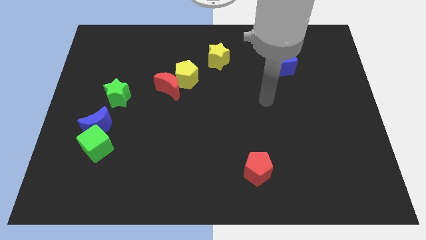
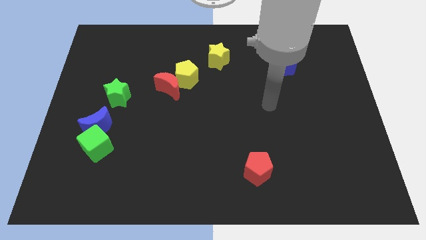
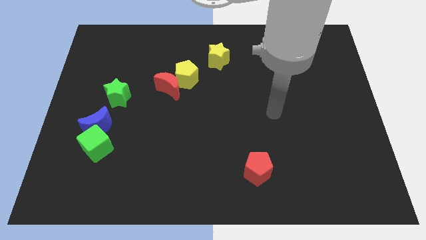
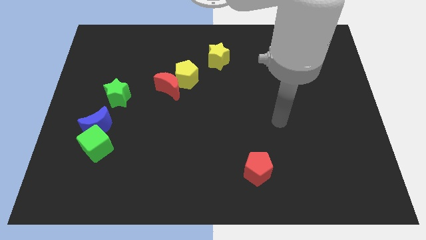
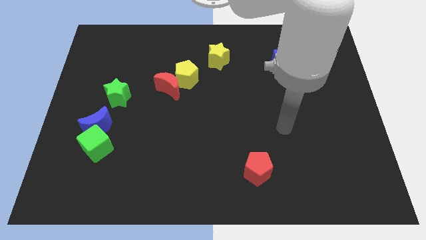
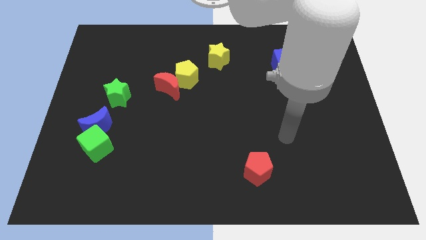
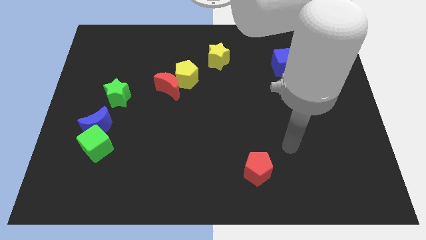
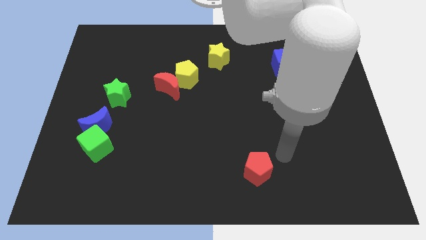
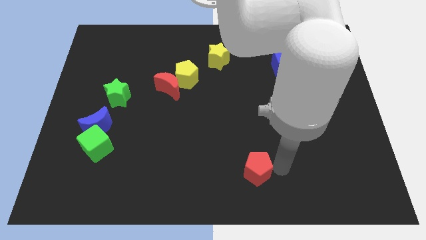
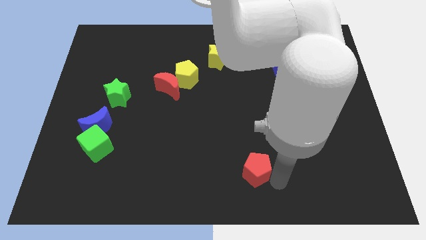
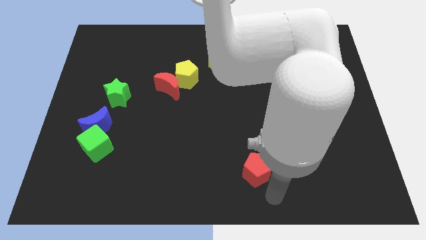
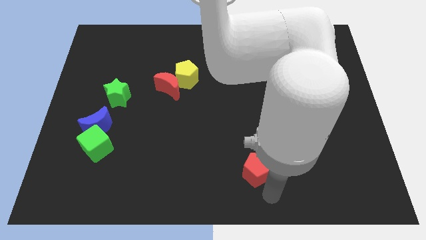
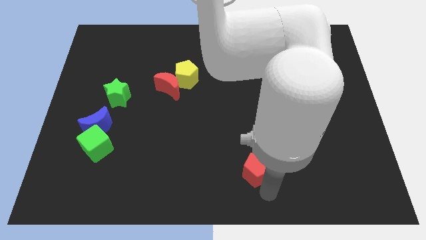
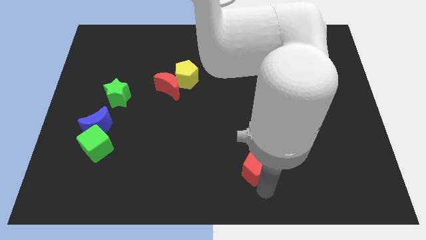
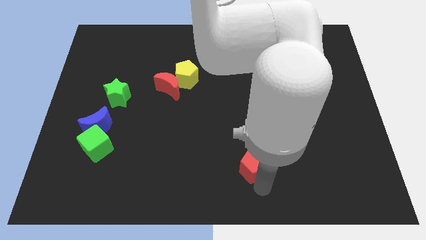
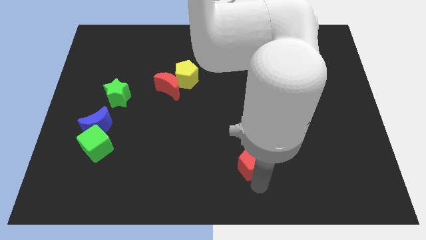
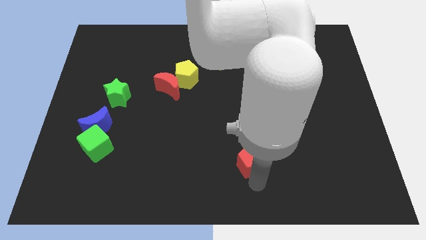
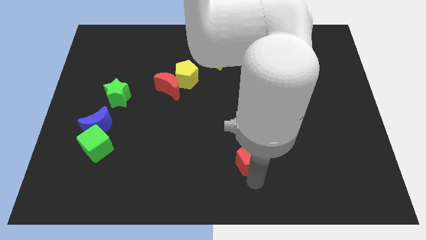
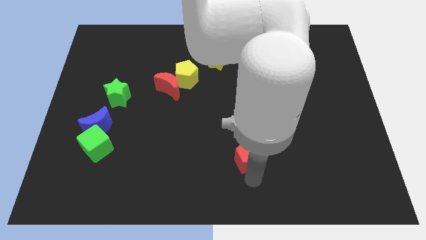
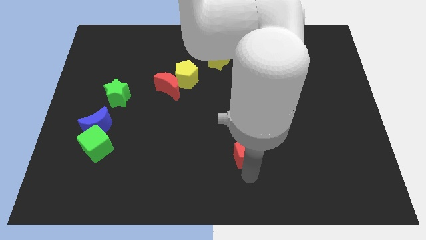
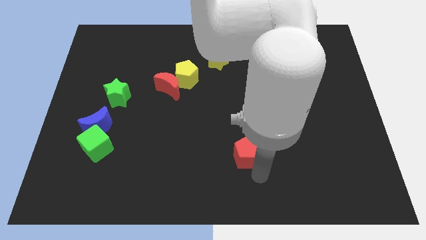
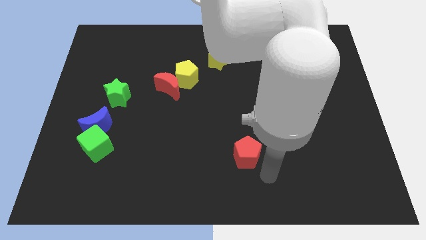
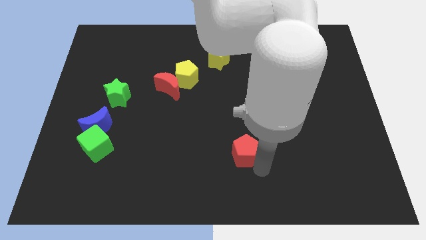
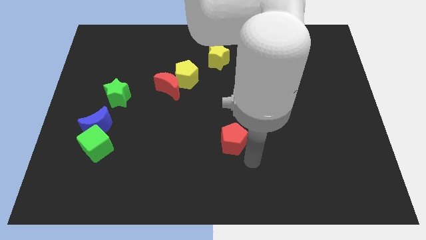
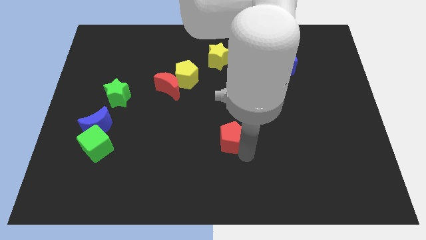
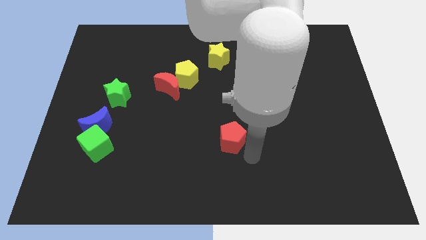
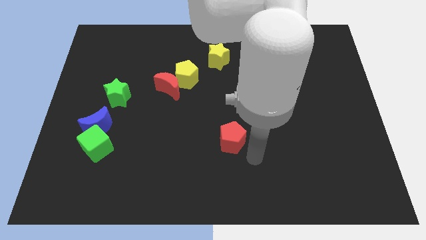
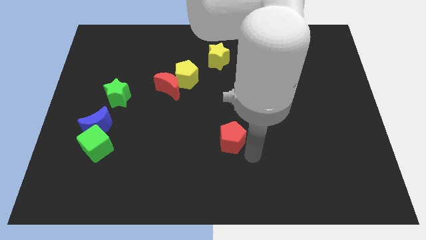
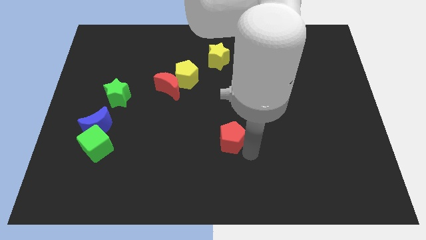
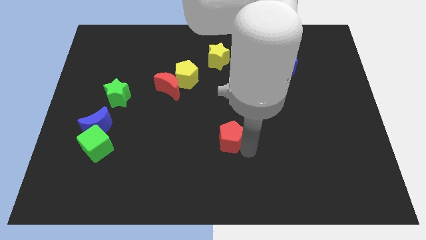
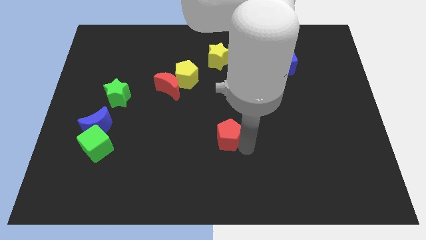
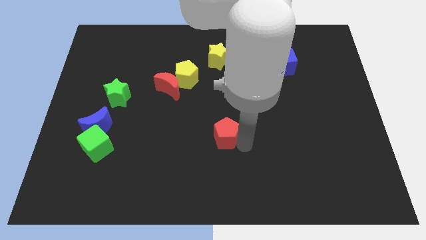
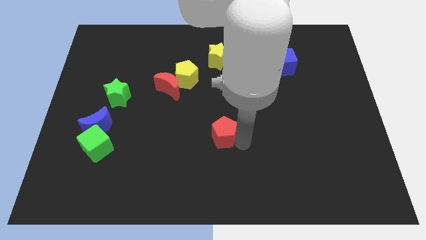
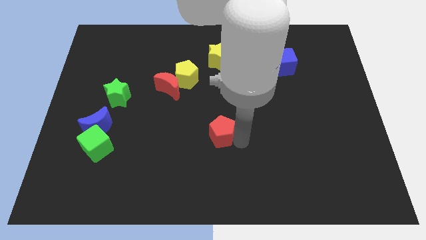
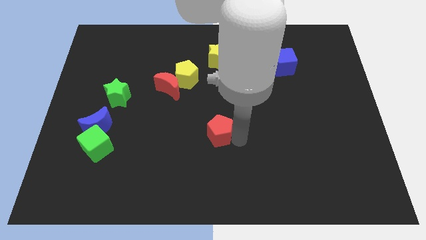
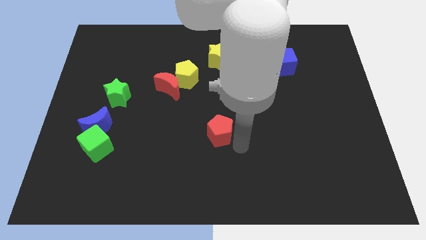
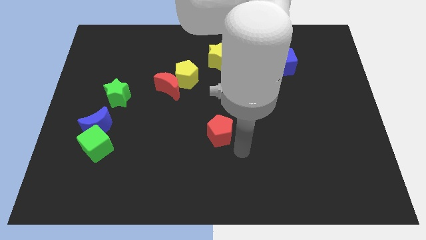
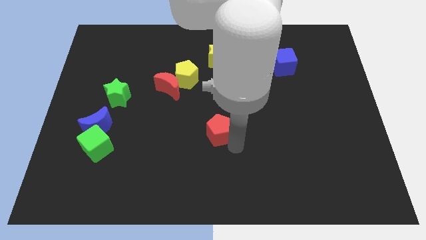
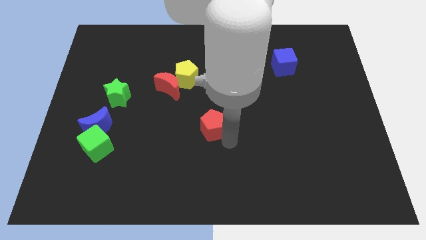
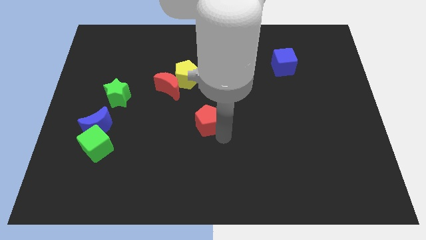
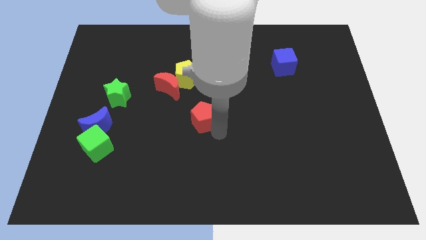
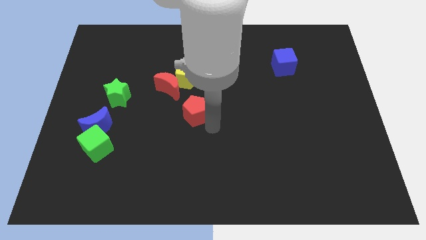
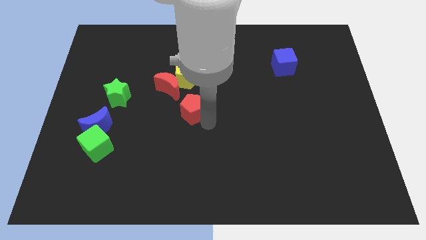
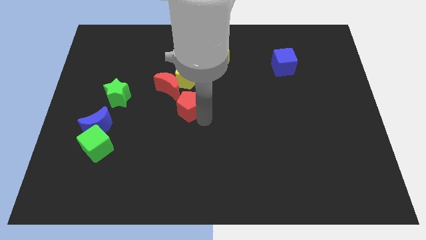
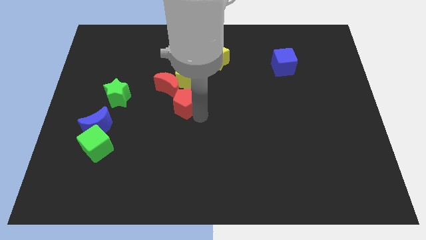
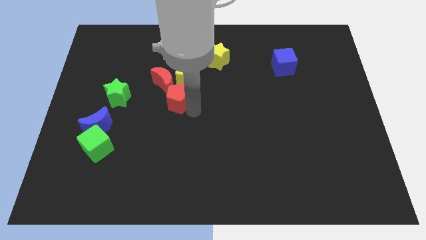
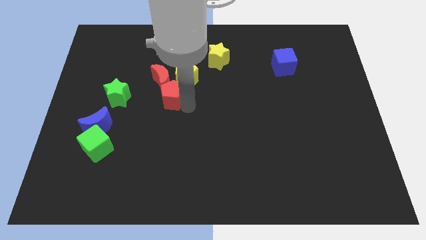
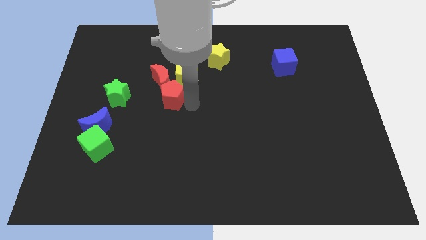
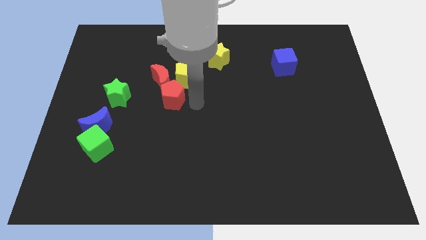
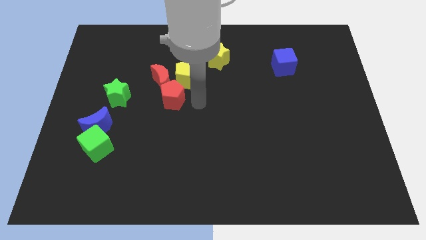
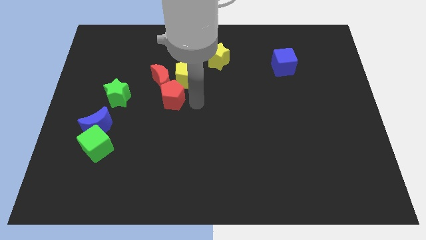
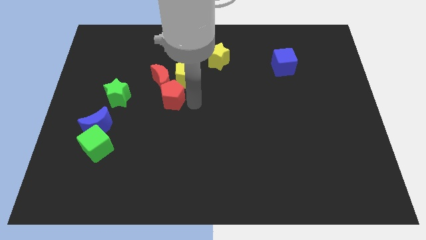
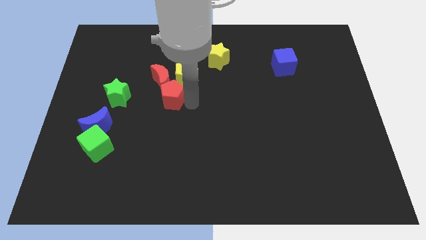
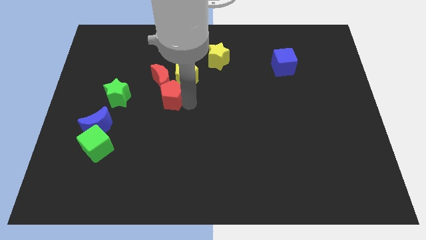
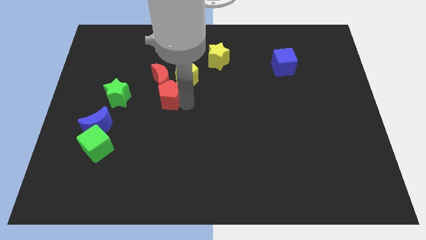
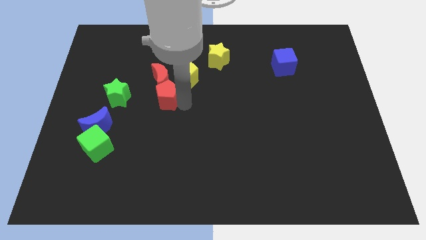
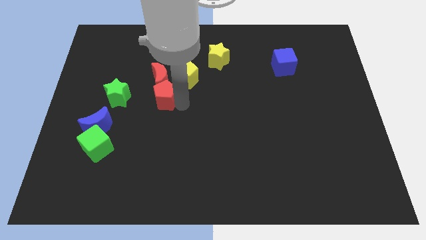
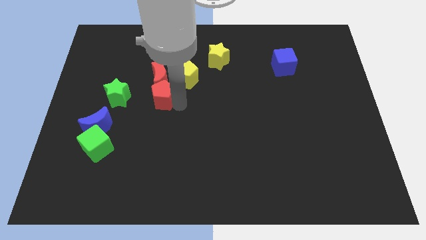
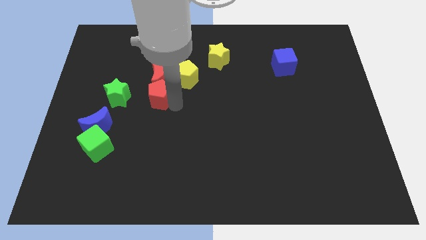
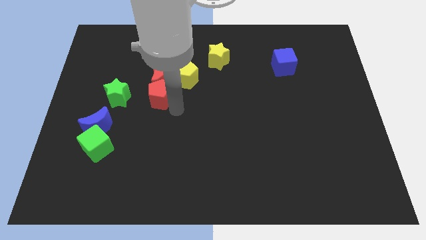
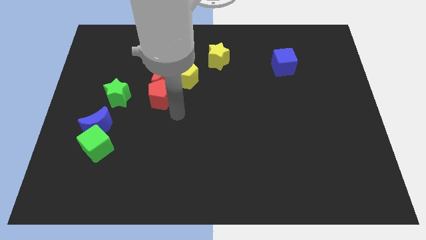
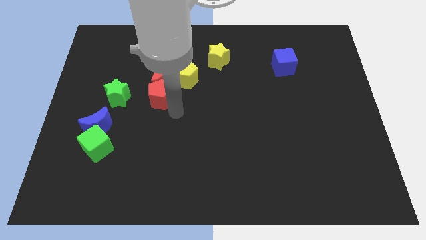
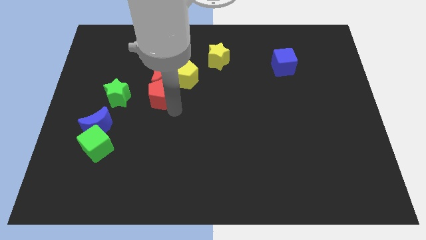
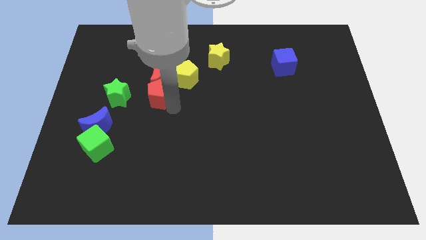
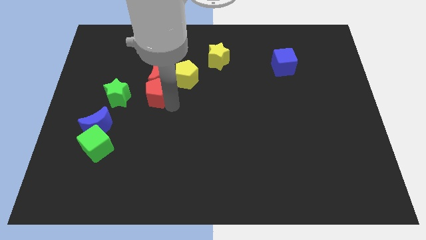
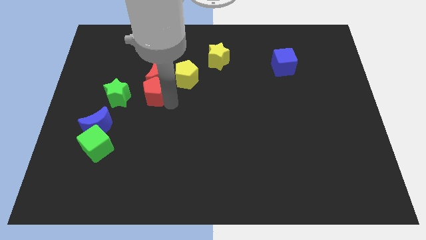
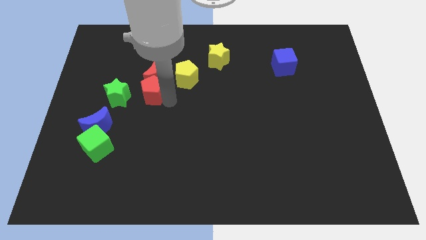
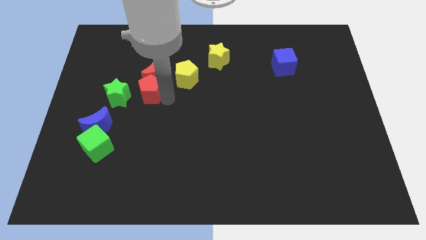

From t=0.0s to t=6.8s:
put the red pentagon to the top right of the green star

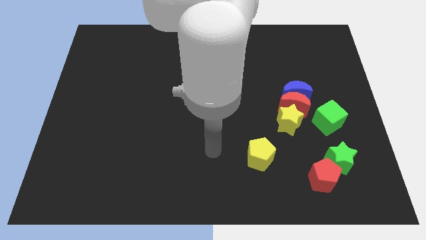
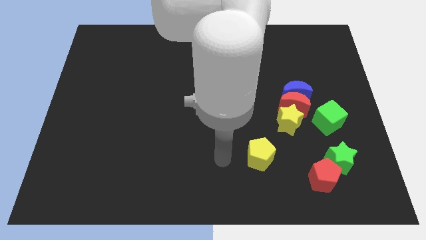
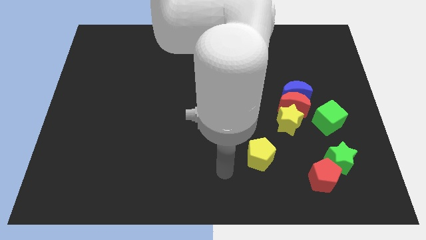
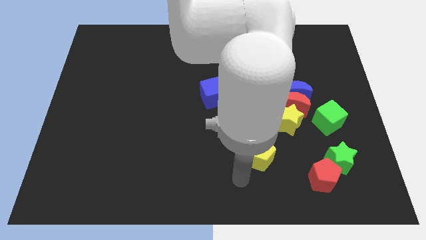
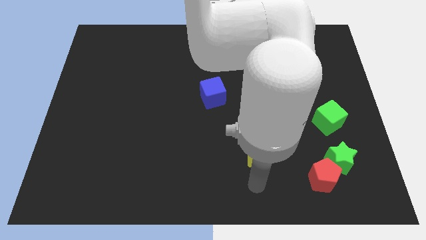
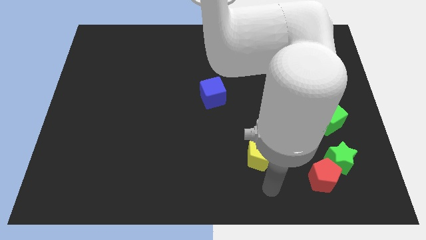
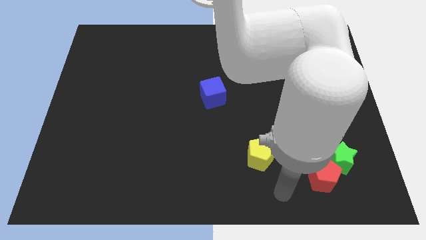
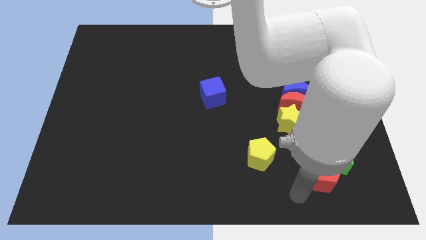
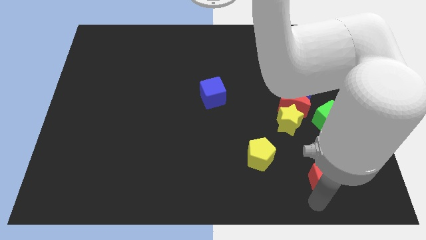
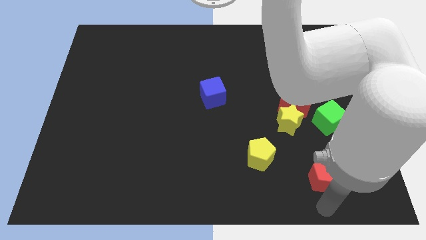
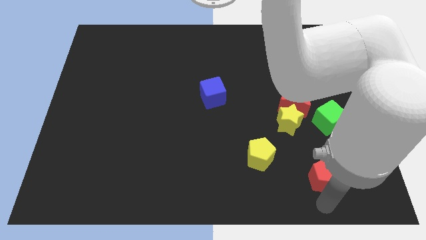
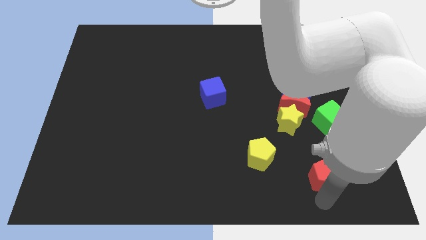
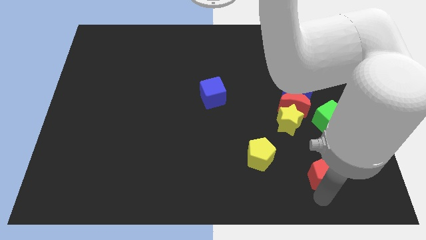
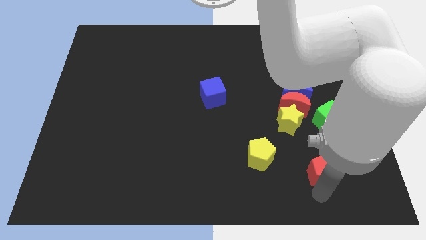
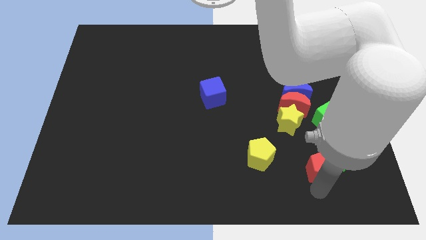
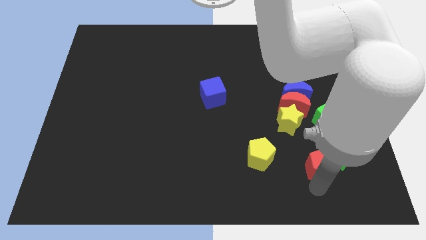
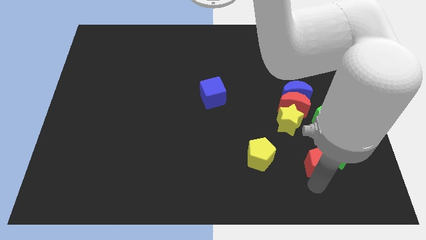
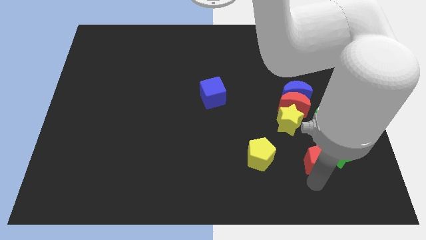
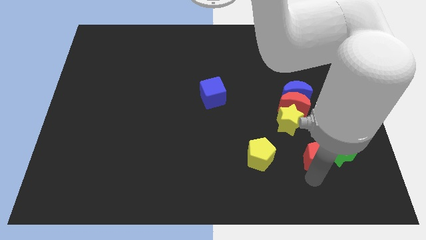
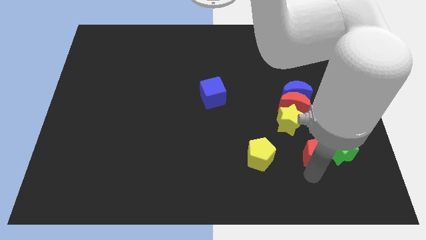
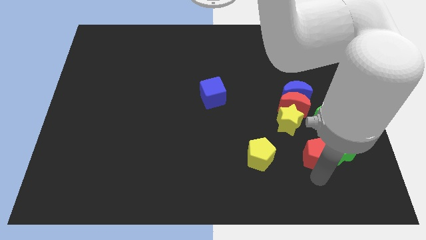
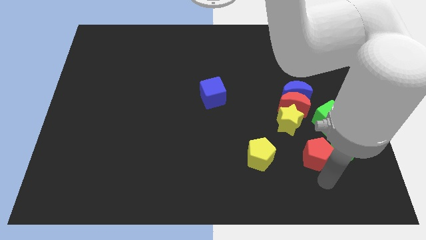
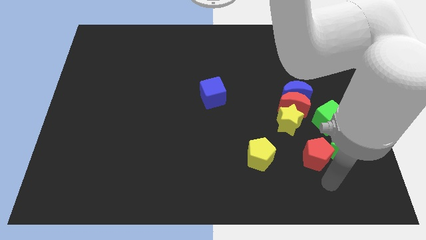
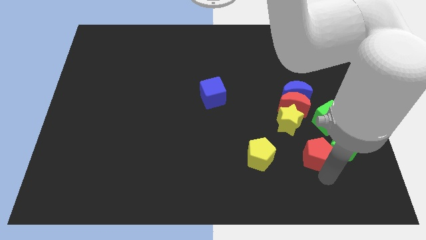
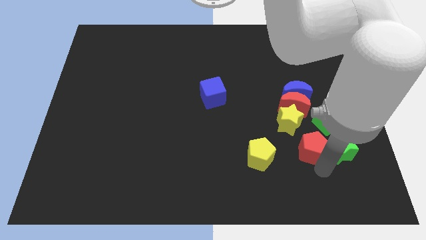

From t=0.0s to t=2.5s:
put the red pentagon to the bottom side of the blue moon
